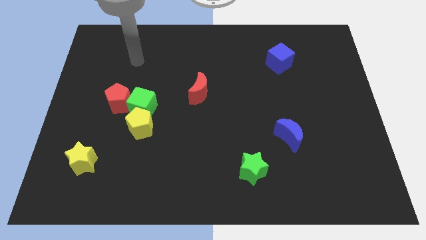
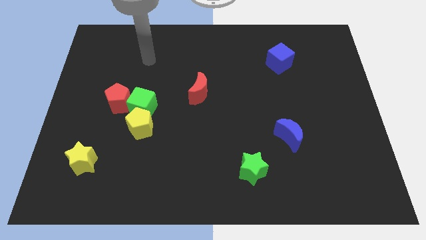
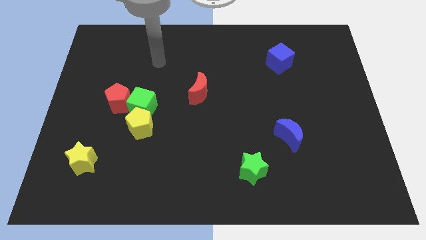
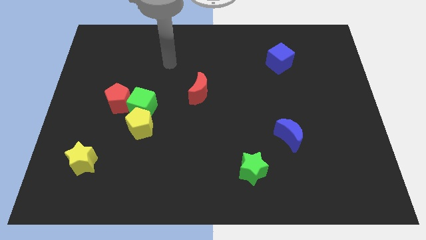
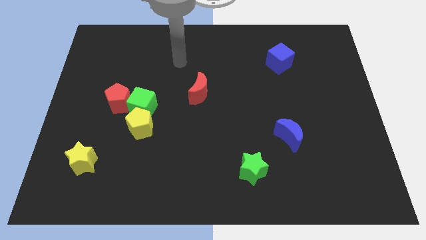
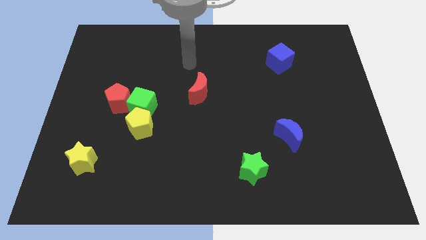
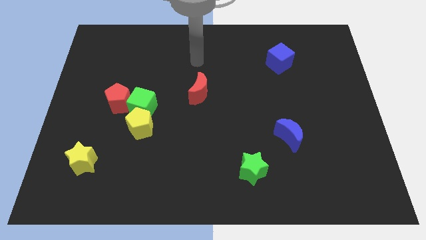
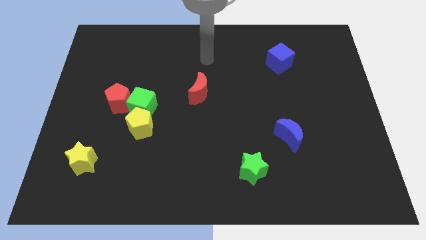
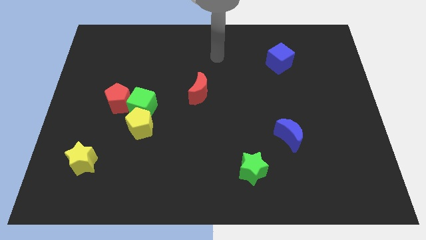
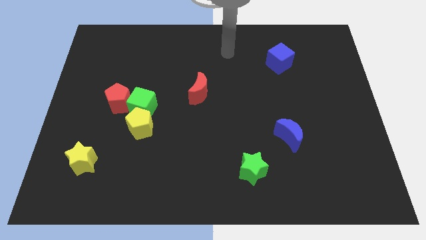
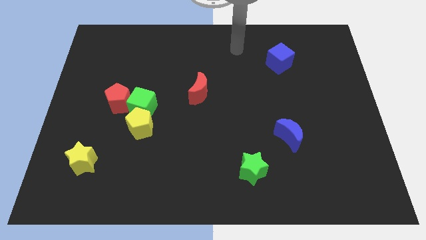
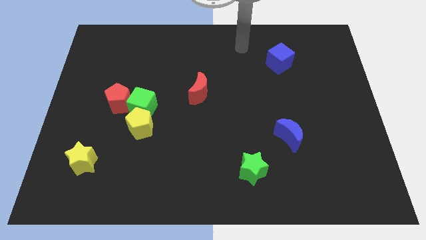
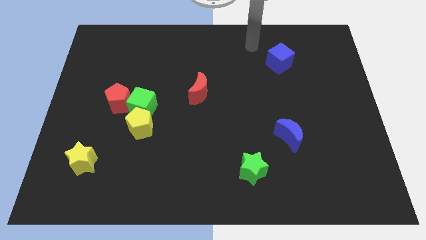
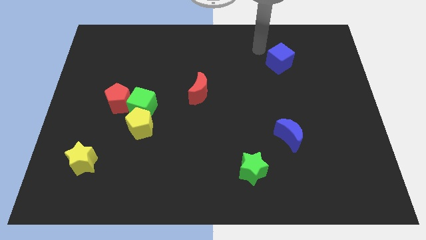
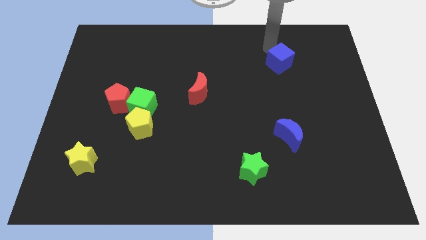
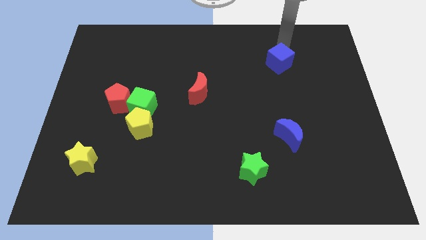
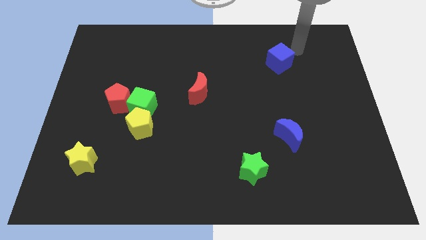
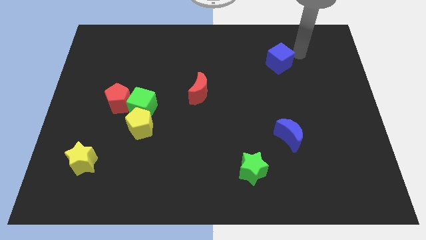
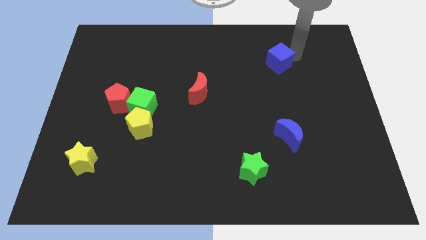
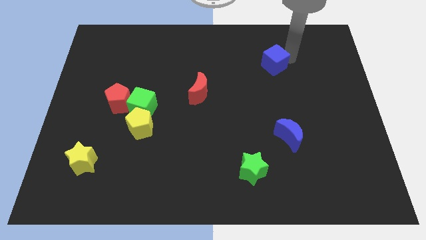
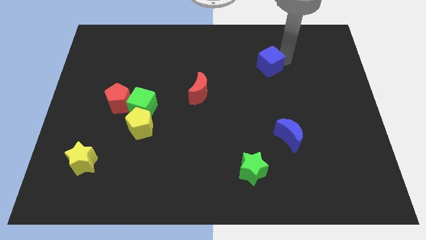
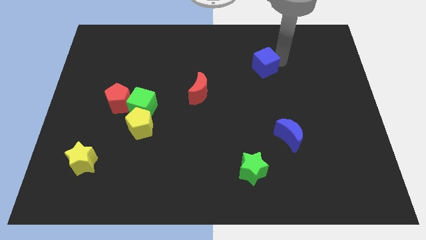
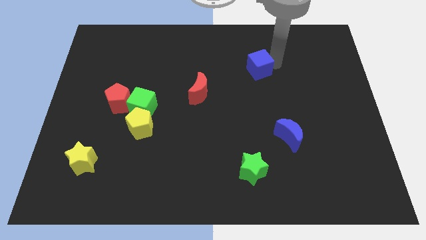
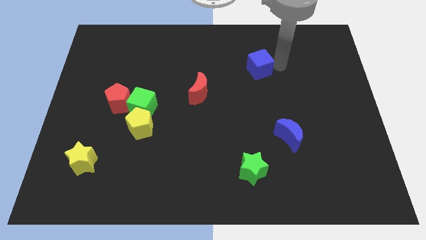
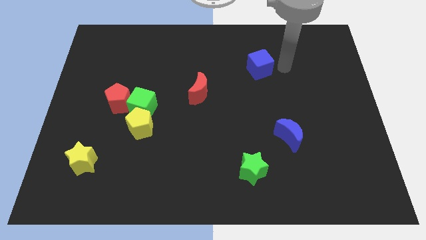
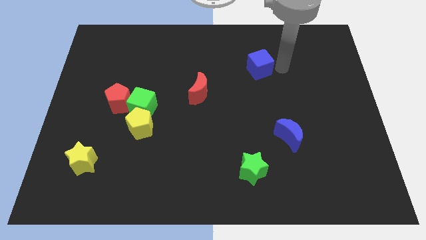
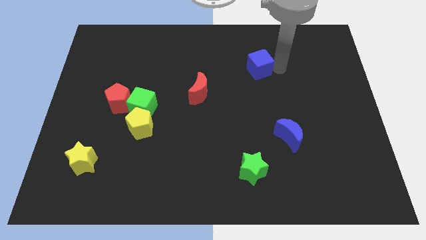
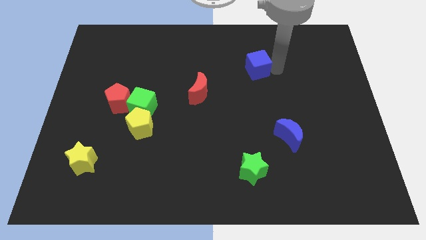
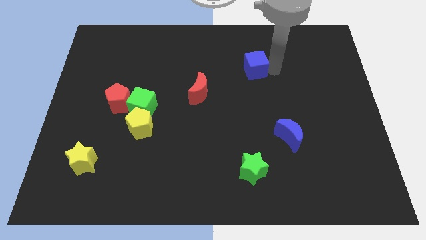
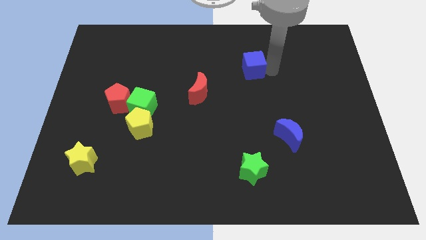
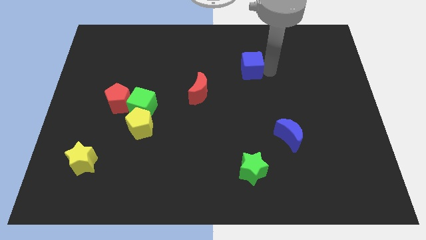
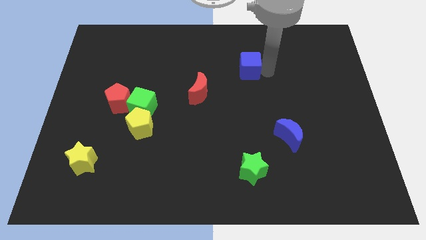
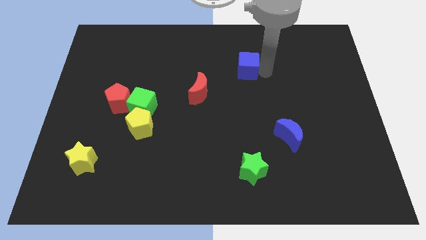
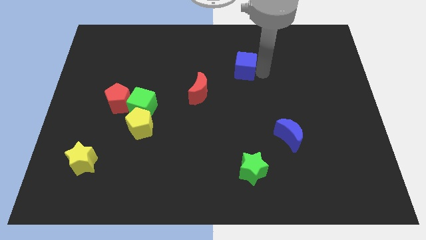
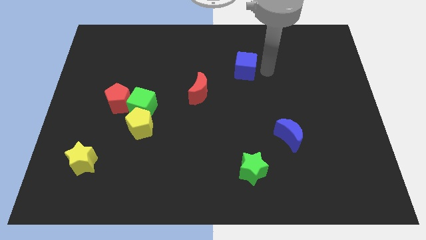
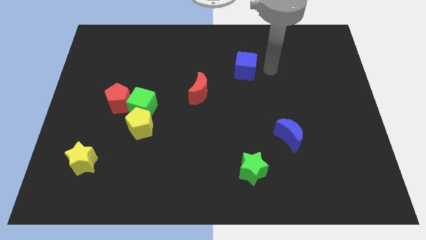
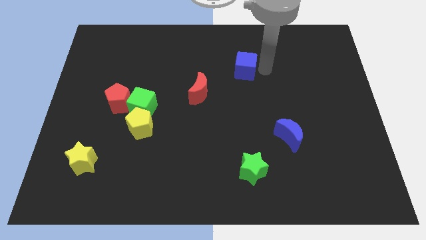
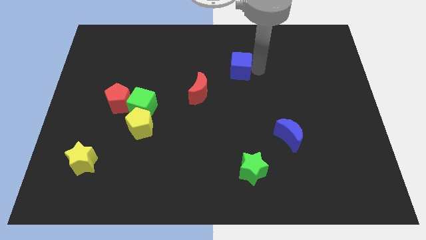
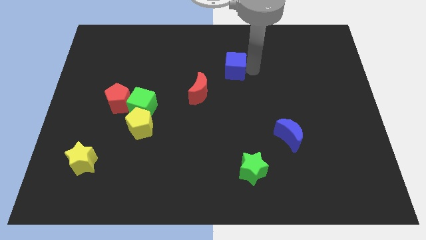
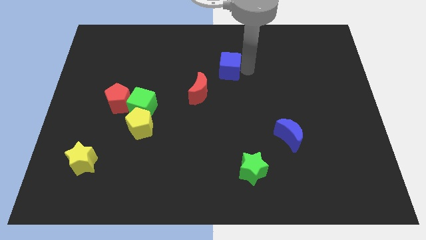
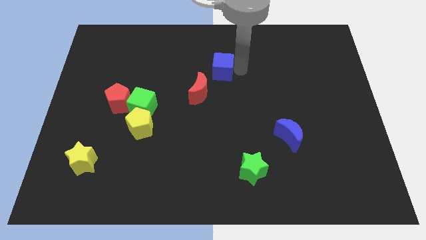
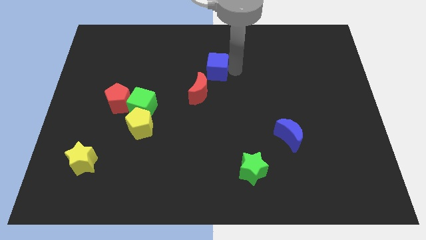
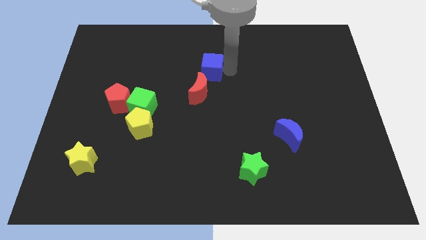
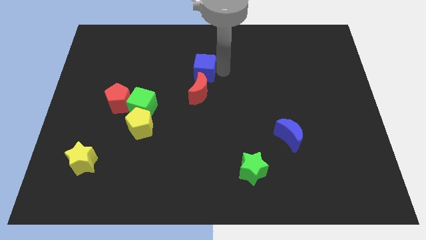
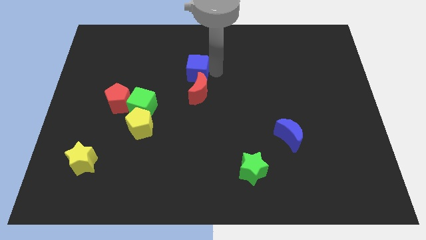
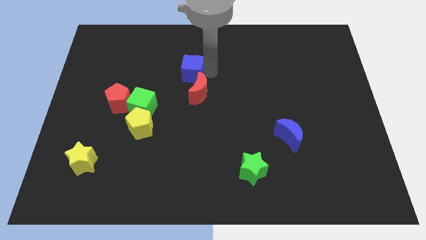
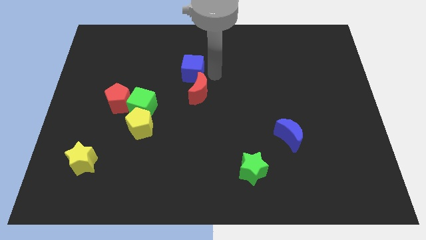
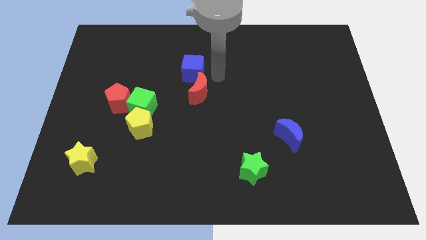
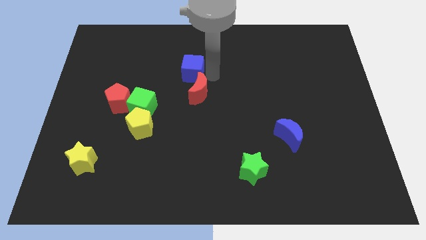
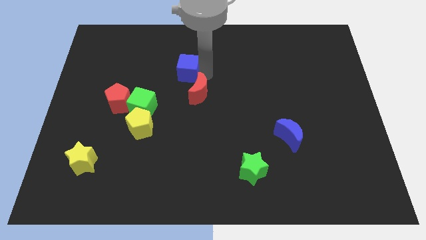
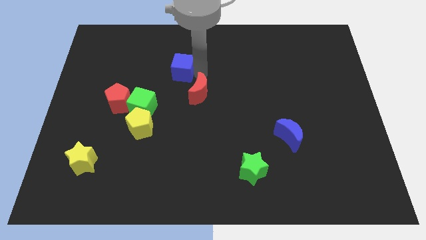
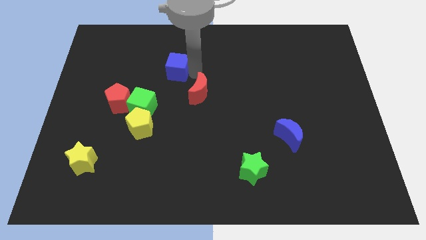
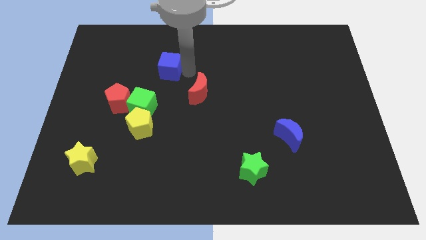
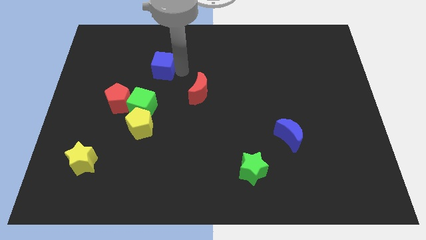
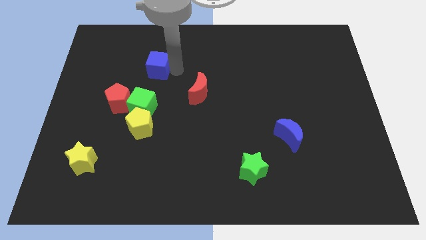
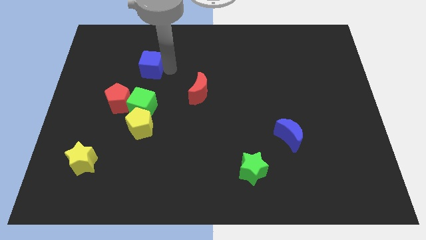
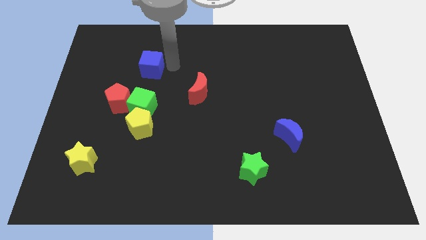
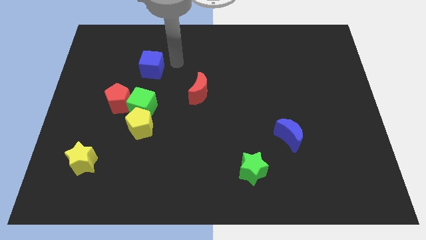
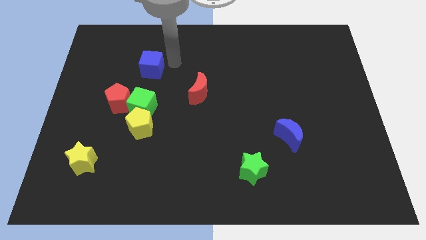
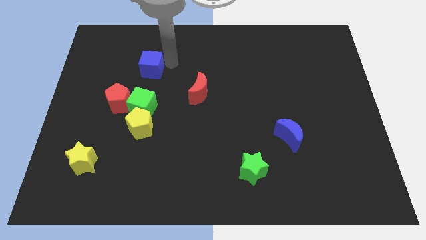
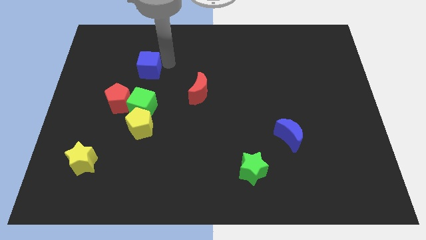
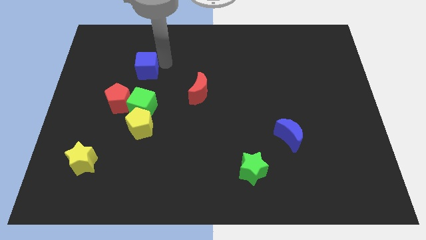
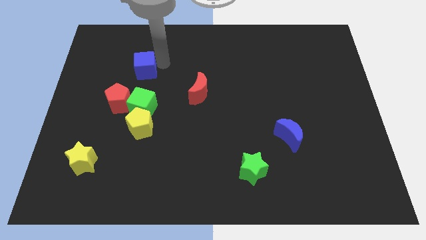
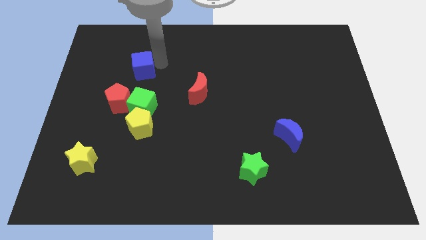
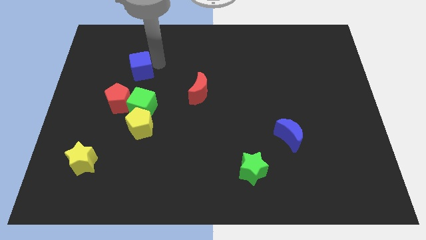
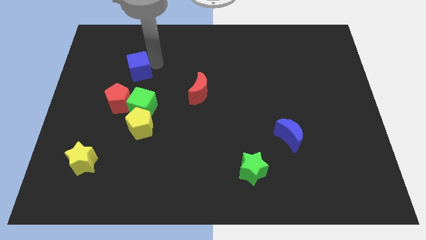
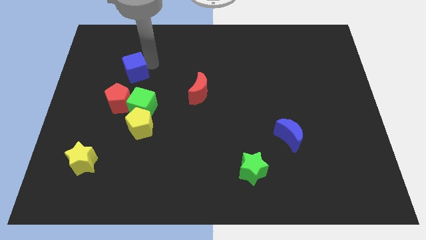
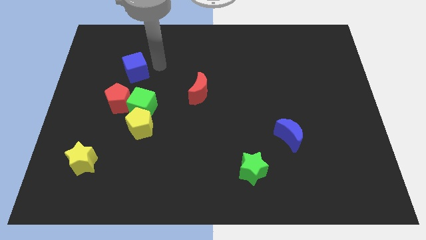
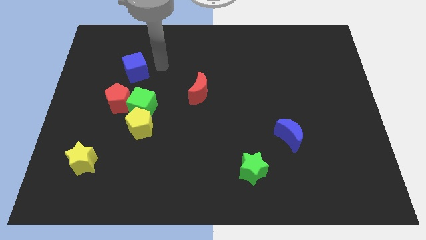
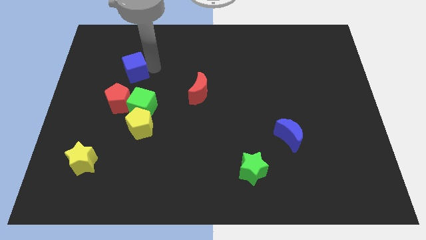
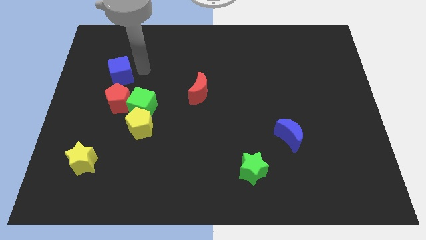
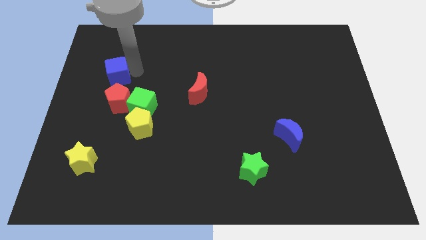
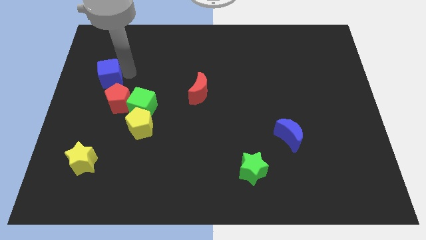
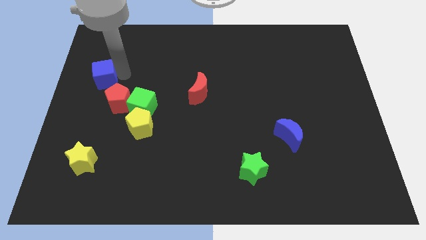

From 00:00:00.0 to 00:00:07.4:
put the blue cube to the center left
